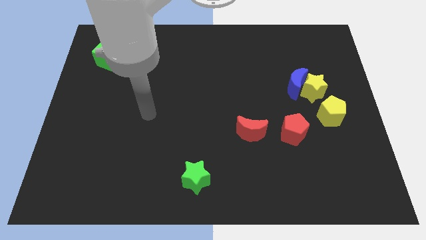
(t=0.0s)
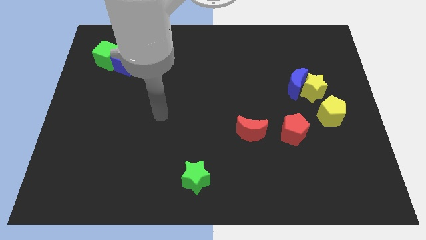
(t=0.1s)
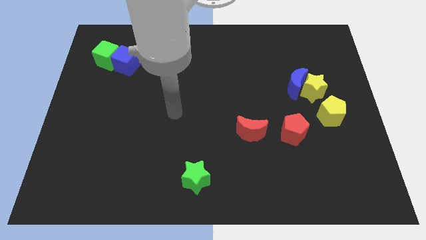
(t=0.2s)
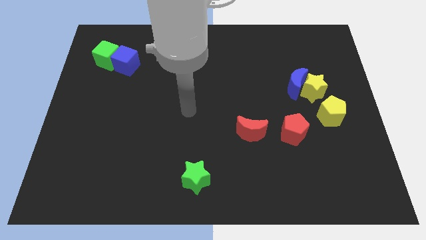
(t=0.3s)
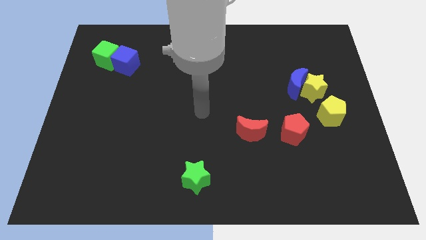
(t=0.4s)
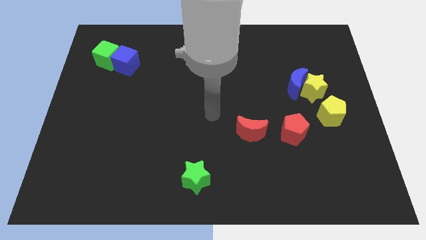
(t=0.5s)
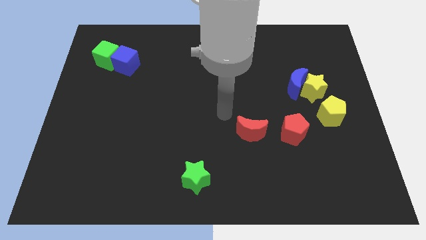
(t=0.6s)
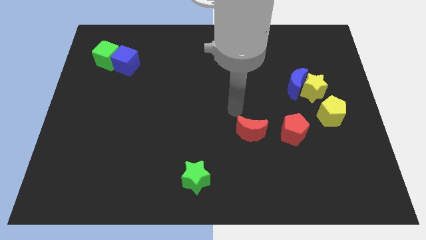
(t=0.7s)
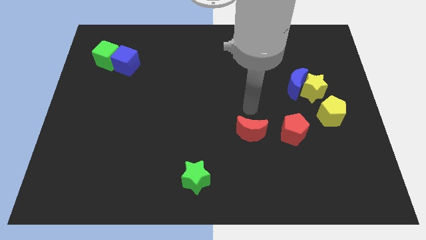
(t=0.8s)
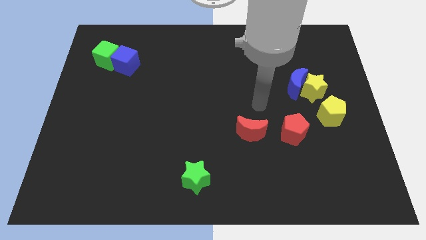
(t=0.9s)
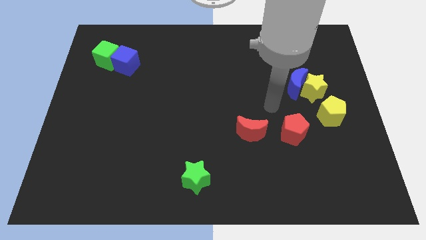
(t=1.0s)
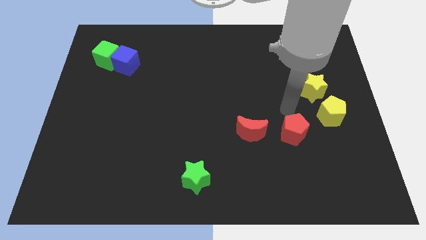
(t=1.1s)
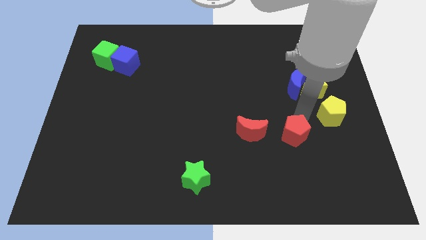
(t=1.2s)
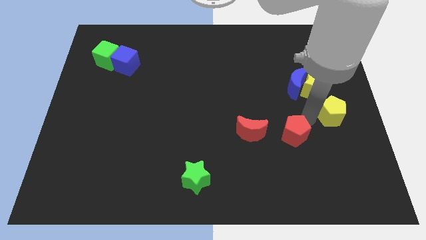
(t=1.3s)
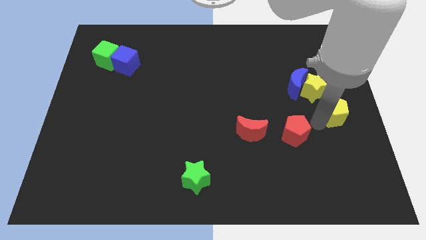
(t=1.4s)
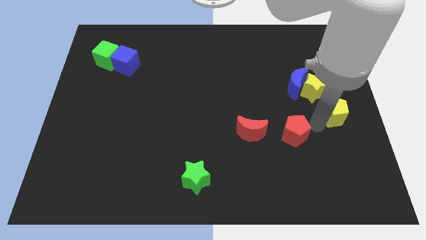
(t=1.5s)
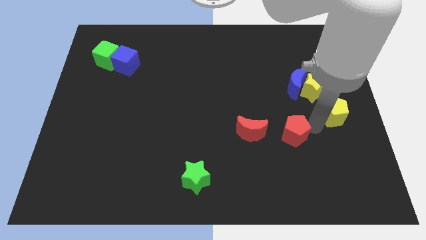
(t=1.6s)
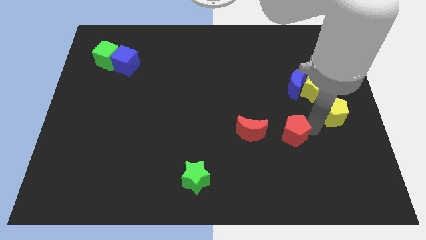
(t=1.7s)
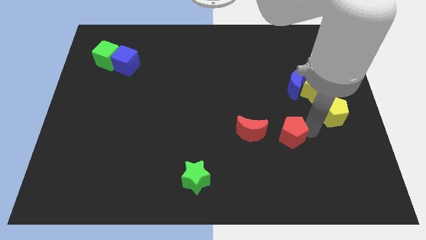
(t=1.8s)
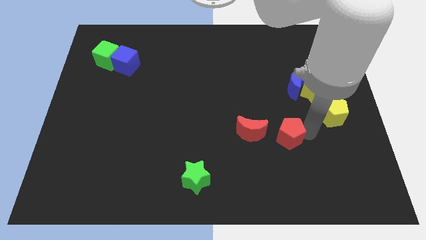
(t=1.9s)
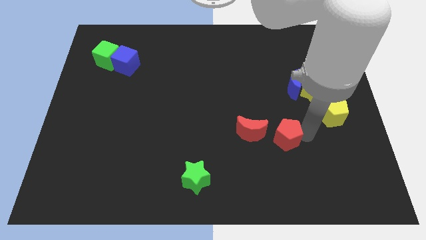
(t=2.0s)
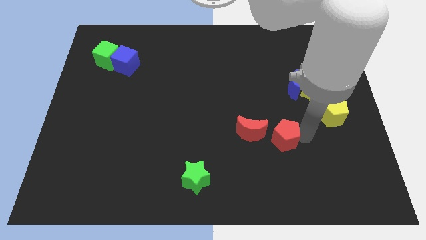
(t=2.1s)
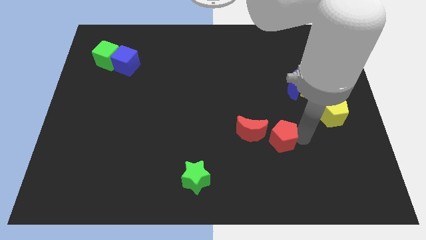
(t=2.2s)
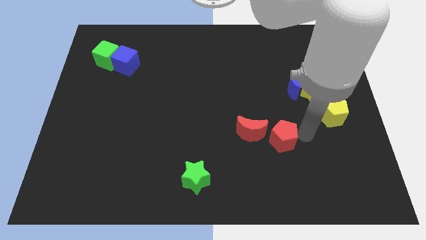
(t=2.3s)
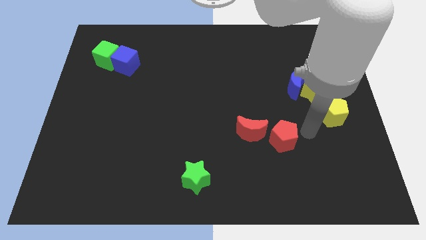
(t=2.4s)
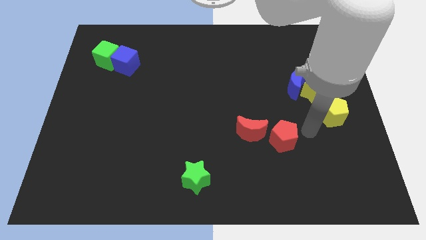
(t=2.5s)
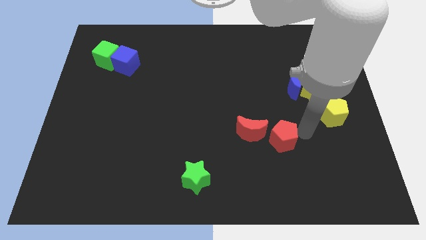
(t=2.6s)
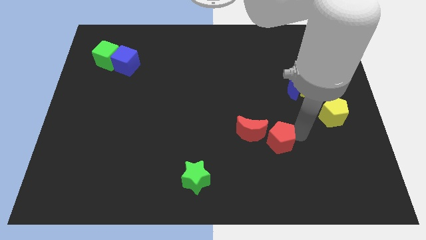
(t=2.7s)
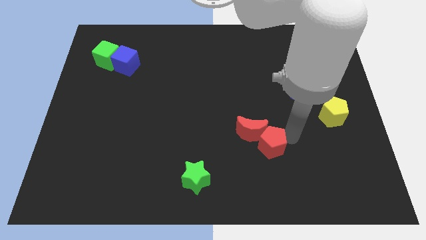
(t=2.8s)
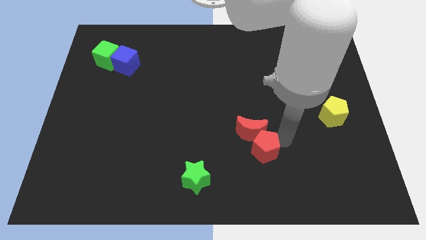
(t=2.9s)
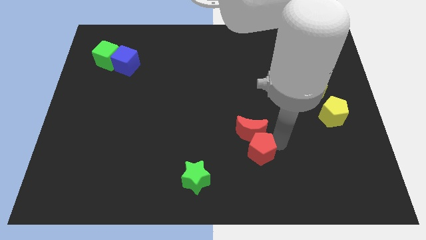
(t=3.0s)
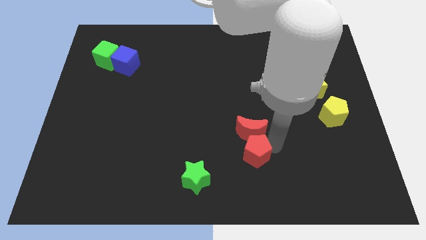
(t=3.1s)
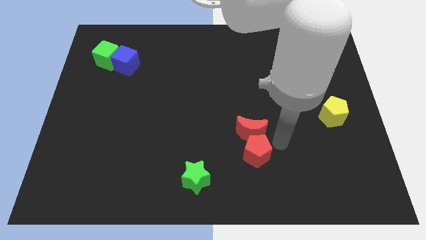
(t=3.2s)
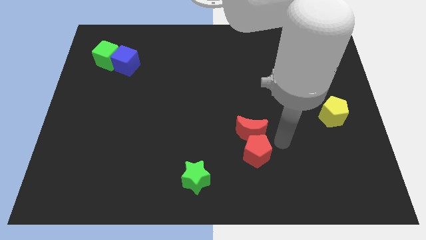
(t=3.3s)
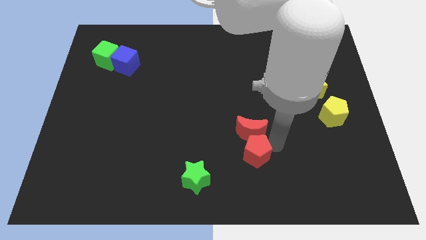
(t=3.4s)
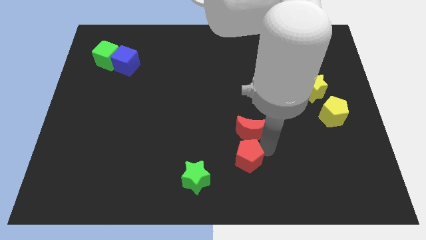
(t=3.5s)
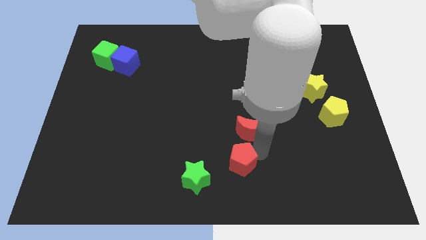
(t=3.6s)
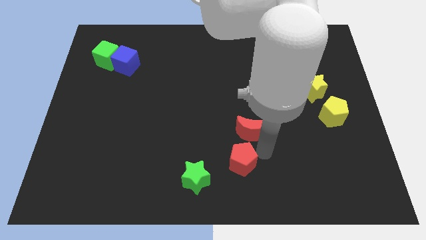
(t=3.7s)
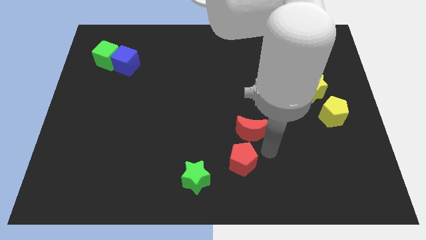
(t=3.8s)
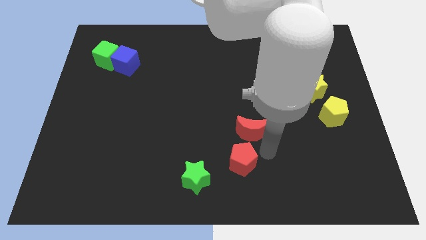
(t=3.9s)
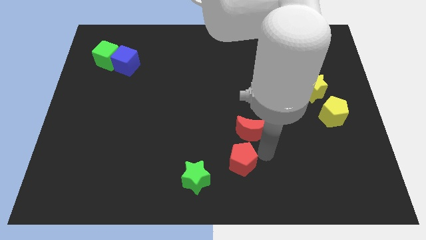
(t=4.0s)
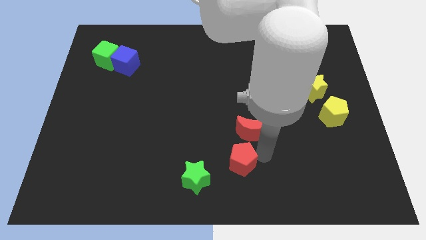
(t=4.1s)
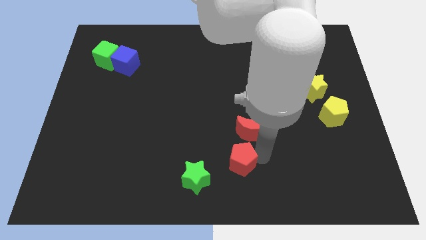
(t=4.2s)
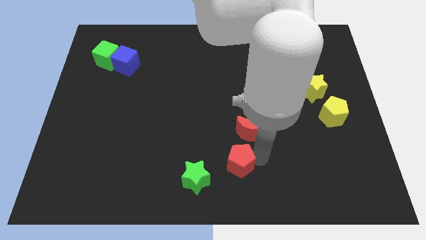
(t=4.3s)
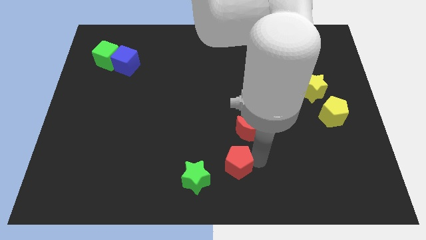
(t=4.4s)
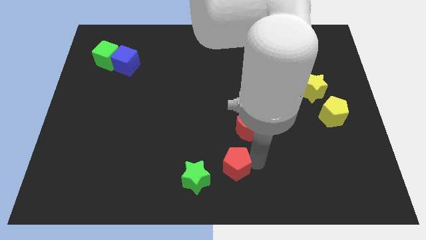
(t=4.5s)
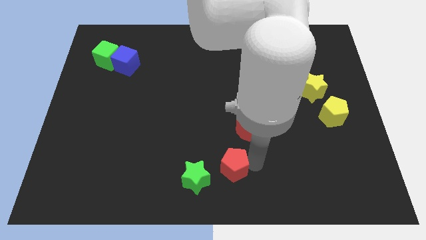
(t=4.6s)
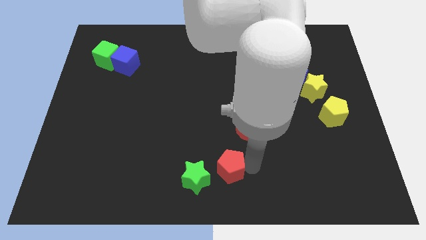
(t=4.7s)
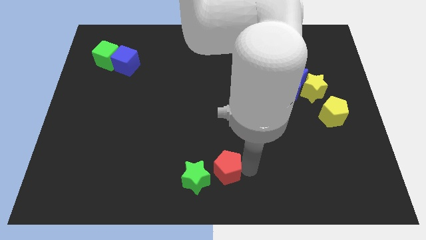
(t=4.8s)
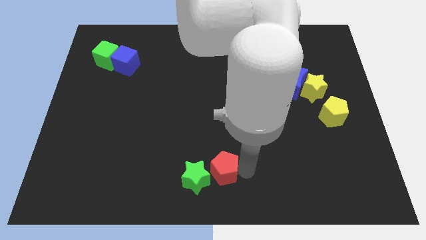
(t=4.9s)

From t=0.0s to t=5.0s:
move the red pentagon to the green star

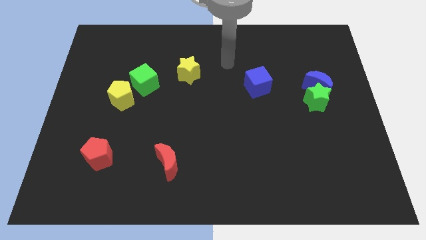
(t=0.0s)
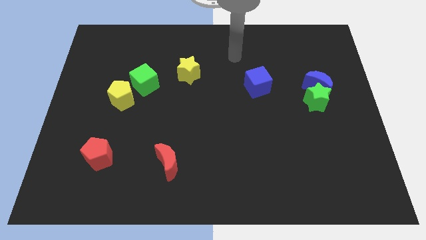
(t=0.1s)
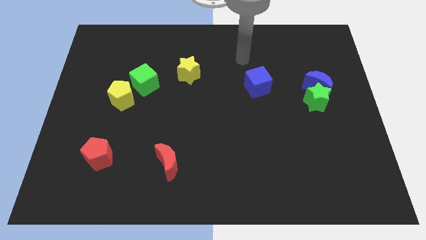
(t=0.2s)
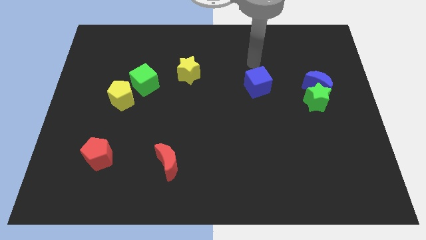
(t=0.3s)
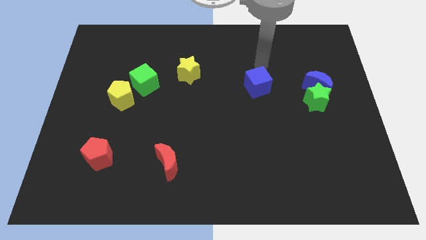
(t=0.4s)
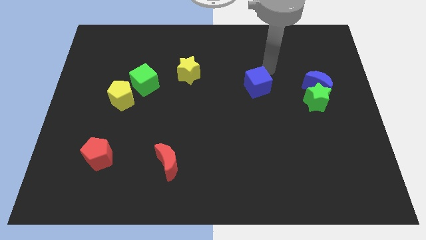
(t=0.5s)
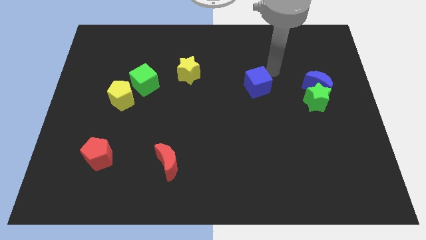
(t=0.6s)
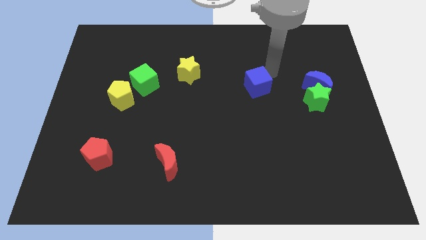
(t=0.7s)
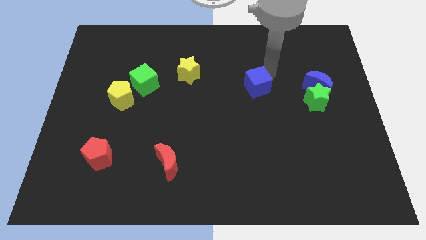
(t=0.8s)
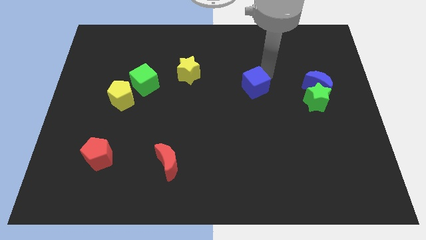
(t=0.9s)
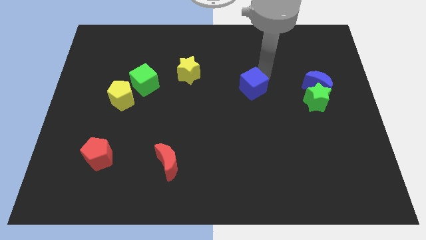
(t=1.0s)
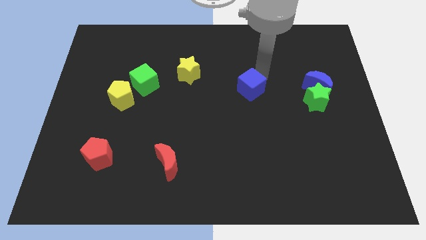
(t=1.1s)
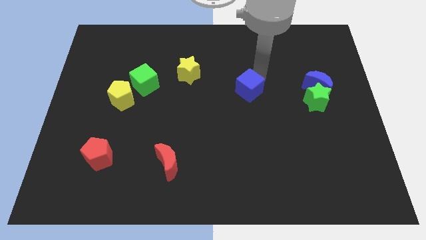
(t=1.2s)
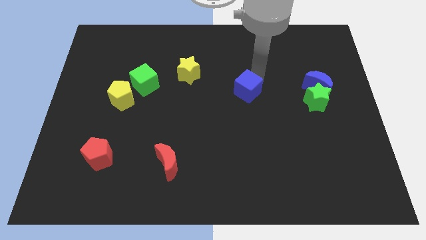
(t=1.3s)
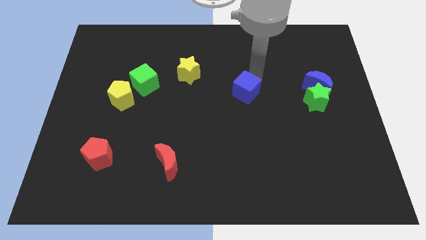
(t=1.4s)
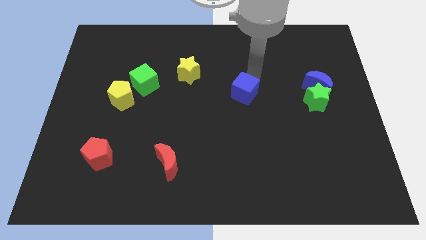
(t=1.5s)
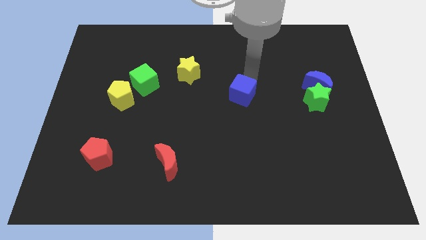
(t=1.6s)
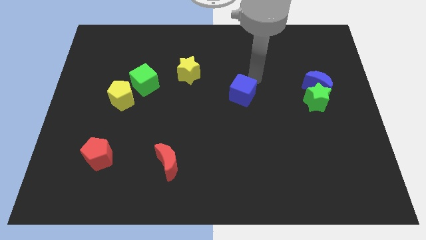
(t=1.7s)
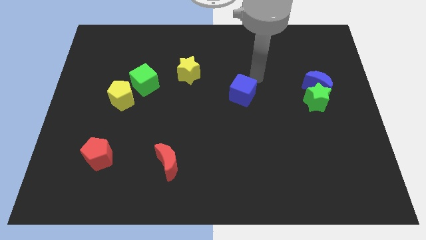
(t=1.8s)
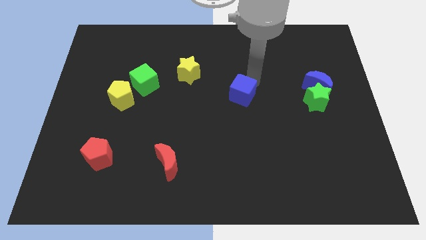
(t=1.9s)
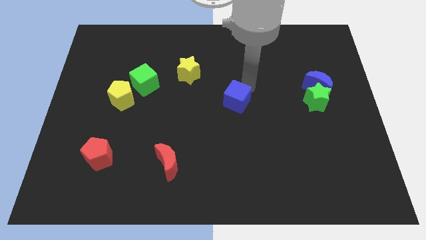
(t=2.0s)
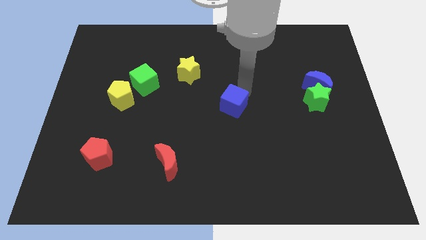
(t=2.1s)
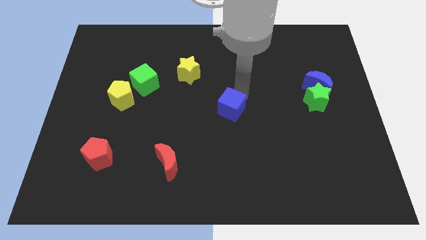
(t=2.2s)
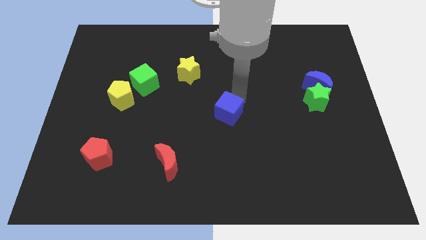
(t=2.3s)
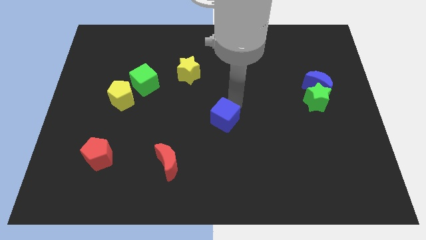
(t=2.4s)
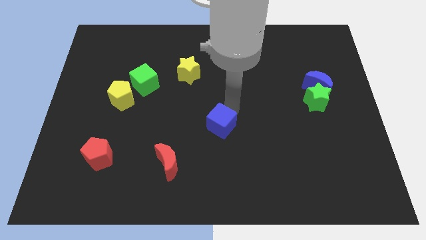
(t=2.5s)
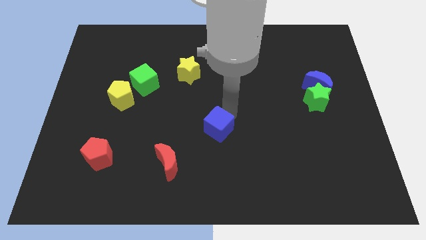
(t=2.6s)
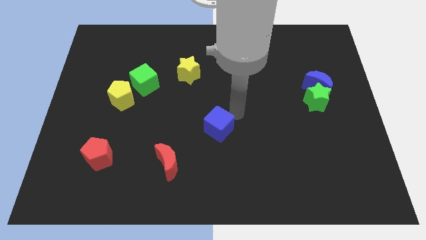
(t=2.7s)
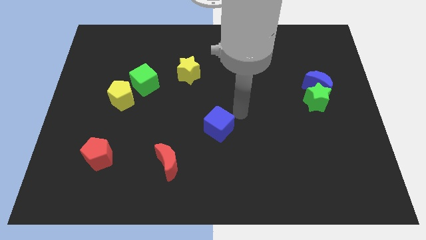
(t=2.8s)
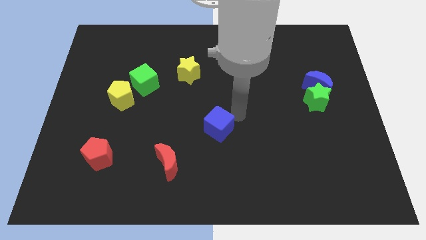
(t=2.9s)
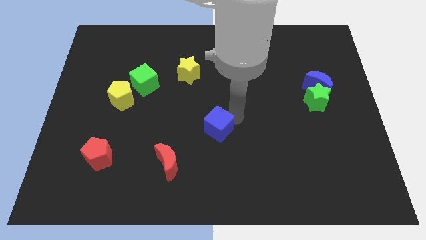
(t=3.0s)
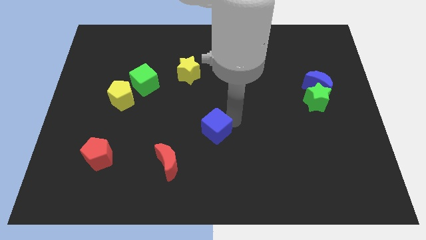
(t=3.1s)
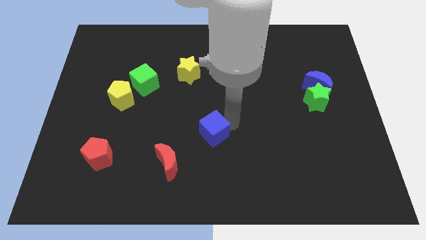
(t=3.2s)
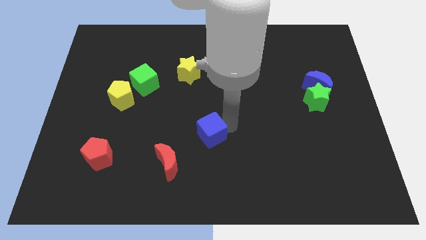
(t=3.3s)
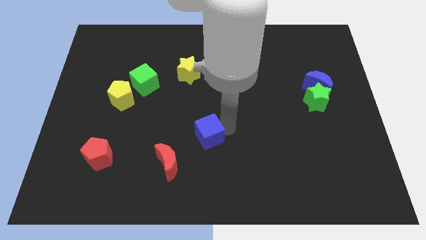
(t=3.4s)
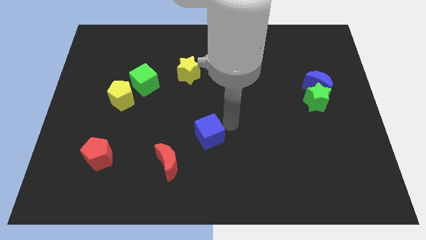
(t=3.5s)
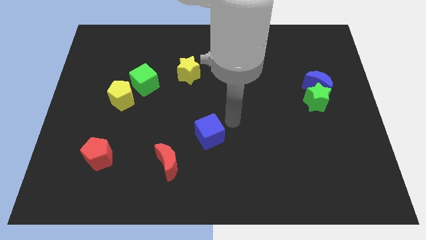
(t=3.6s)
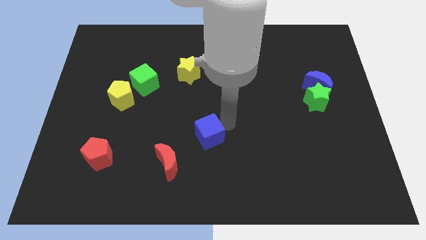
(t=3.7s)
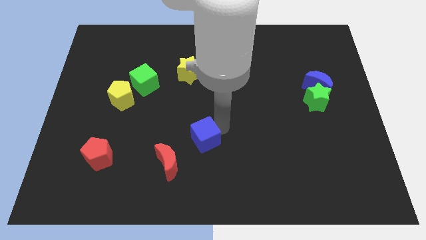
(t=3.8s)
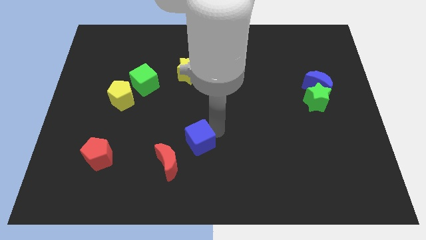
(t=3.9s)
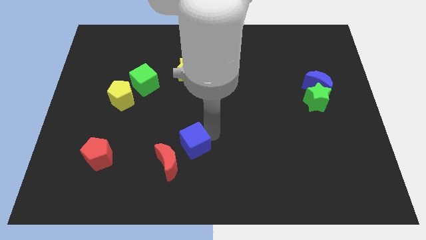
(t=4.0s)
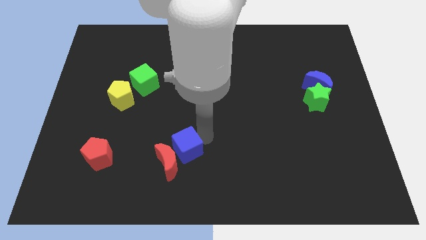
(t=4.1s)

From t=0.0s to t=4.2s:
slide the blue cube towards the red moon
